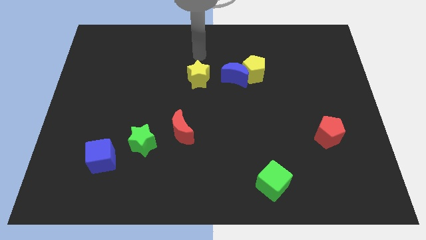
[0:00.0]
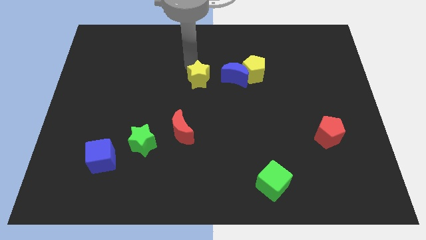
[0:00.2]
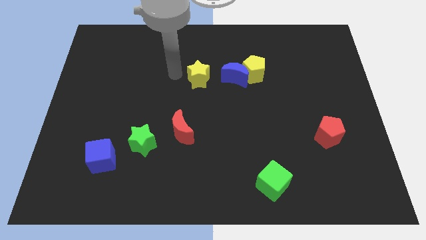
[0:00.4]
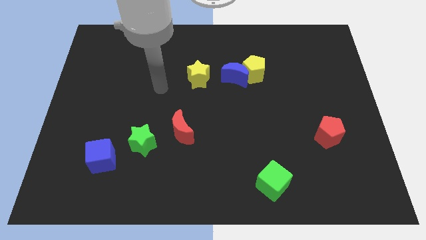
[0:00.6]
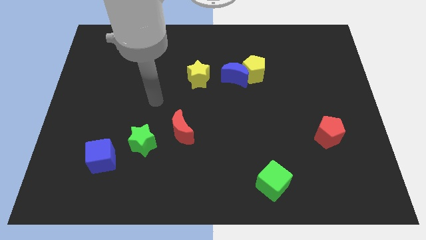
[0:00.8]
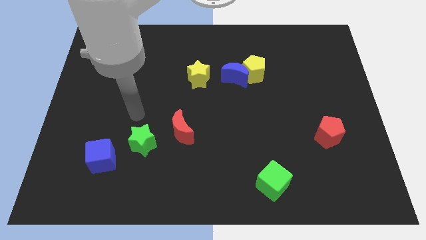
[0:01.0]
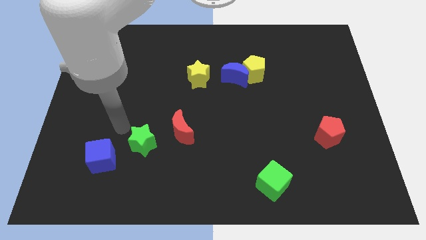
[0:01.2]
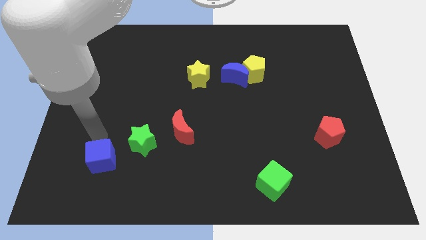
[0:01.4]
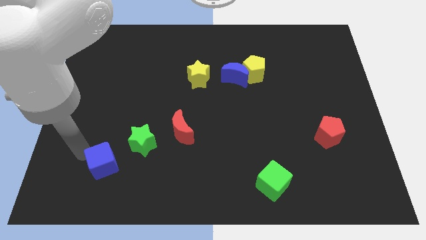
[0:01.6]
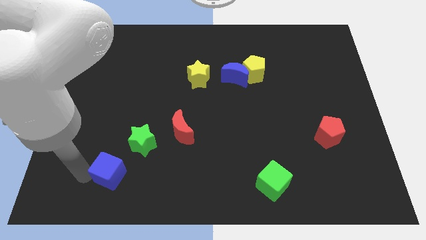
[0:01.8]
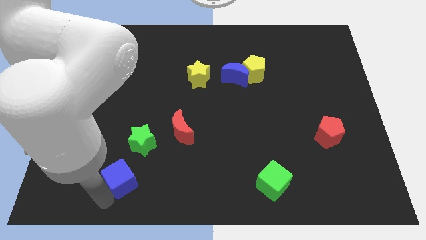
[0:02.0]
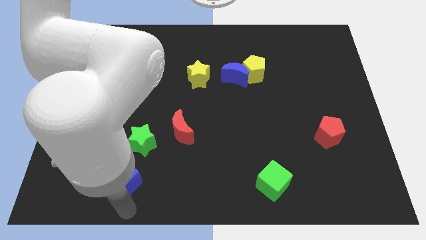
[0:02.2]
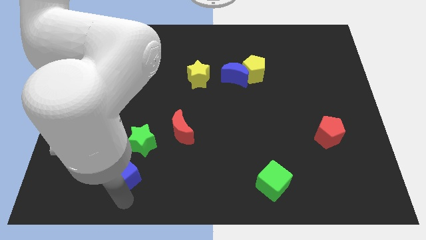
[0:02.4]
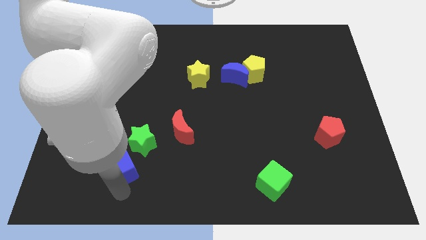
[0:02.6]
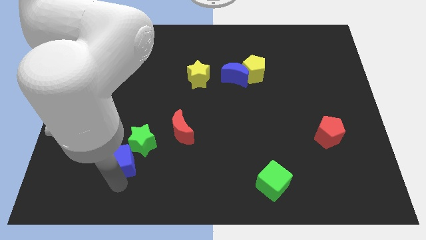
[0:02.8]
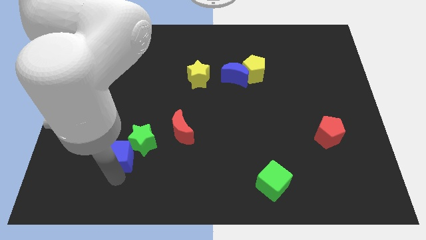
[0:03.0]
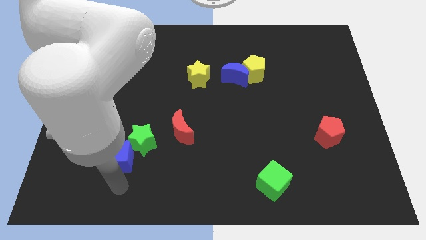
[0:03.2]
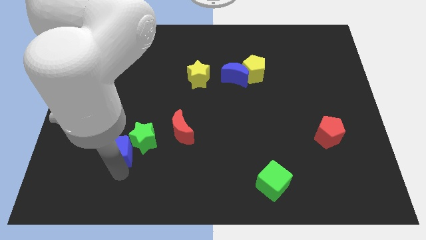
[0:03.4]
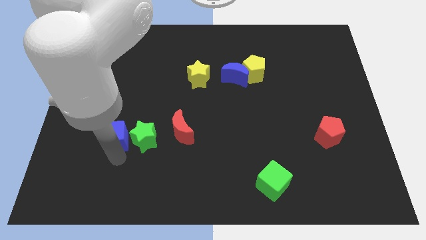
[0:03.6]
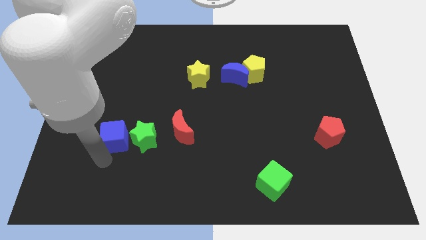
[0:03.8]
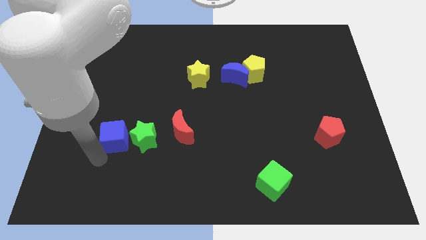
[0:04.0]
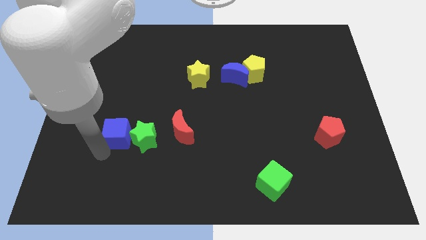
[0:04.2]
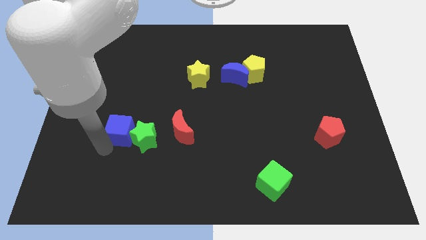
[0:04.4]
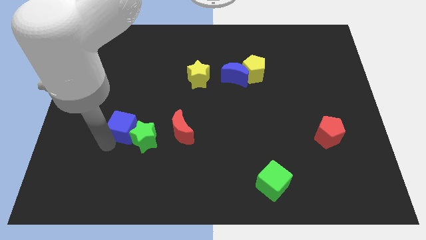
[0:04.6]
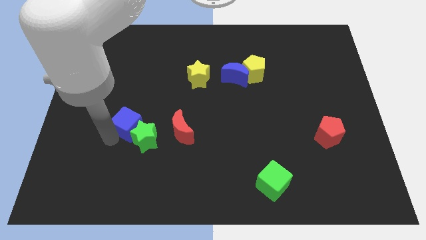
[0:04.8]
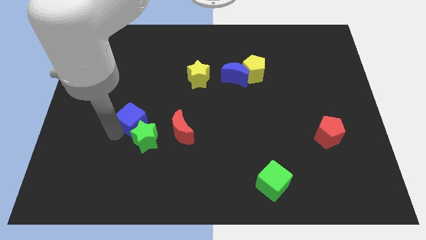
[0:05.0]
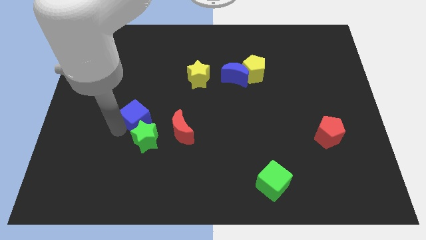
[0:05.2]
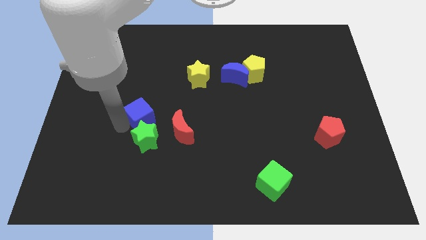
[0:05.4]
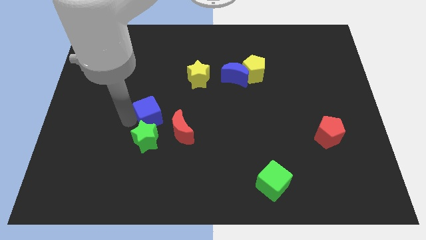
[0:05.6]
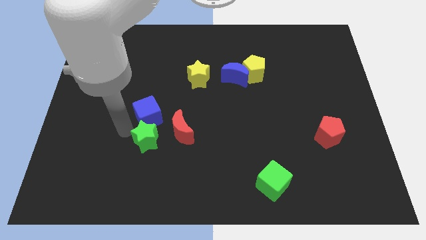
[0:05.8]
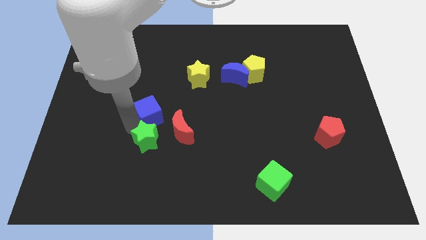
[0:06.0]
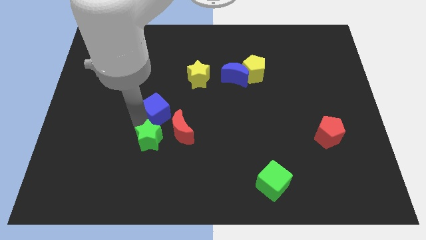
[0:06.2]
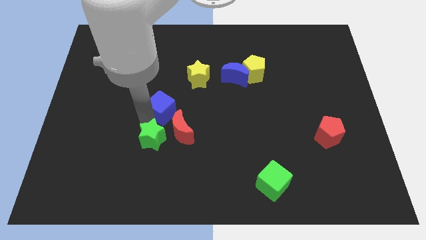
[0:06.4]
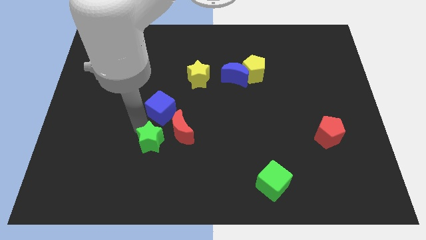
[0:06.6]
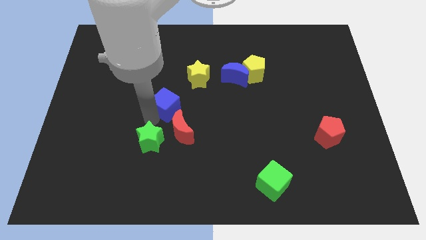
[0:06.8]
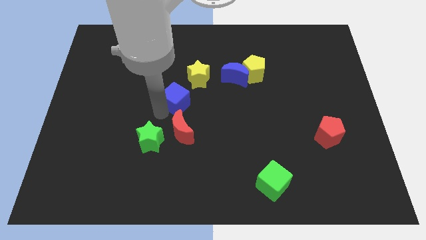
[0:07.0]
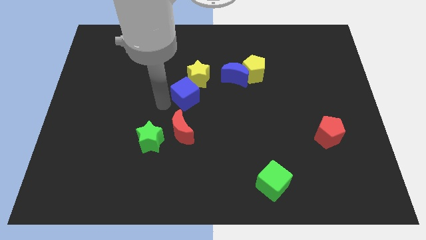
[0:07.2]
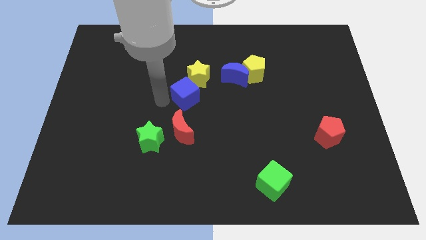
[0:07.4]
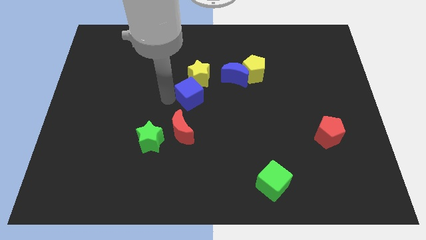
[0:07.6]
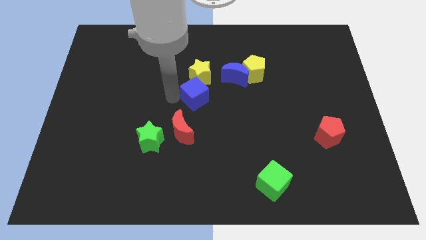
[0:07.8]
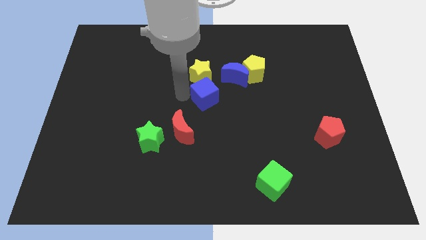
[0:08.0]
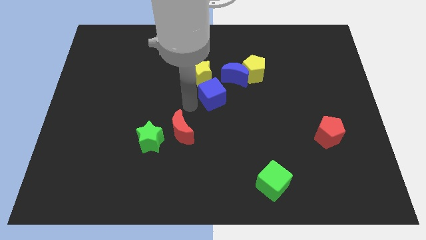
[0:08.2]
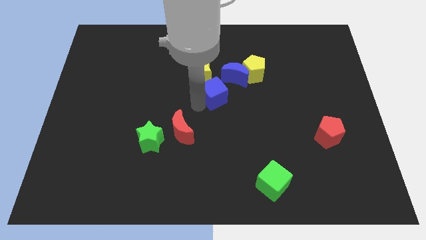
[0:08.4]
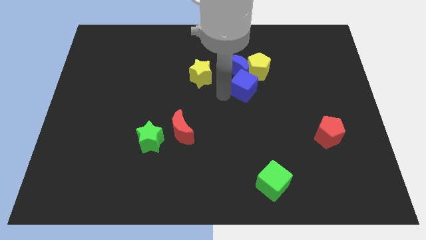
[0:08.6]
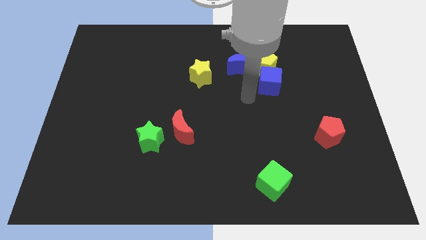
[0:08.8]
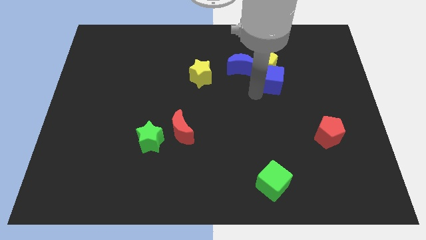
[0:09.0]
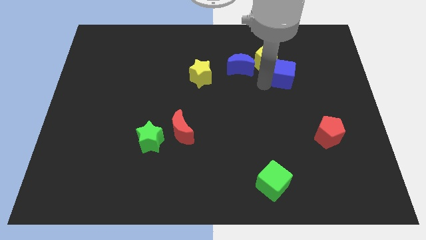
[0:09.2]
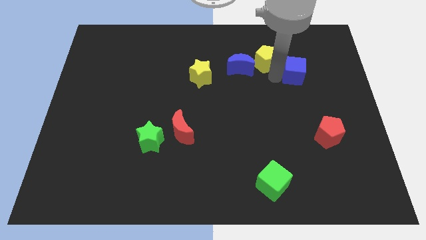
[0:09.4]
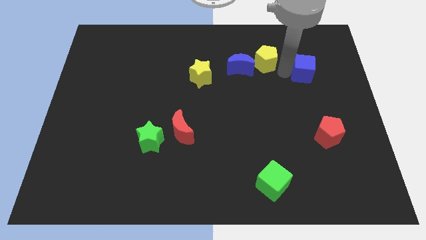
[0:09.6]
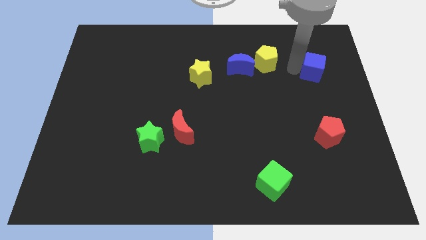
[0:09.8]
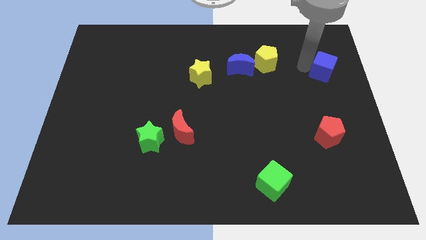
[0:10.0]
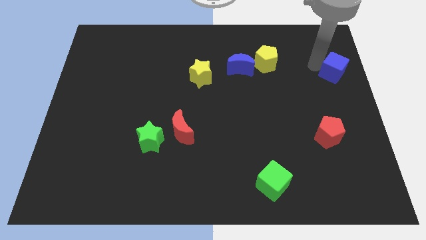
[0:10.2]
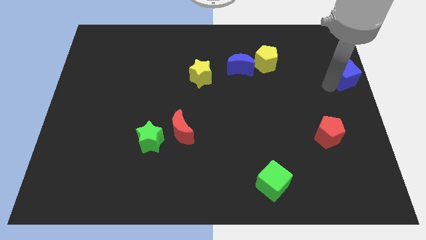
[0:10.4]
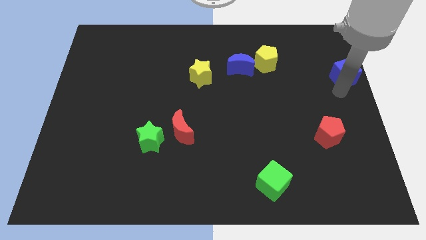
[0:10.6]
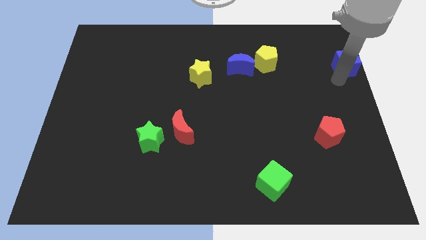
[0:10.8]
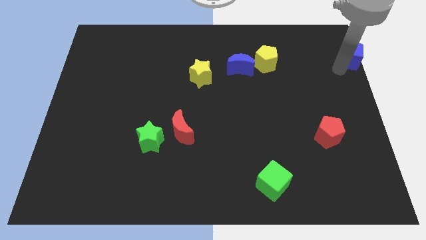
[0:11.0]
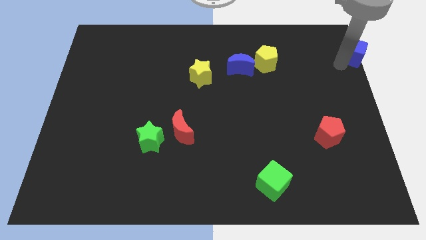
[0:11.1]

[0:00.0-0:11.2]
put the blue cube to the top right of the board

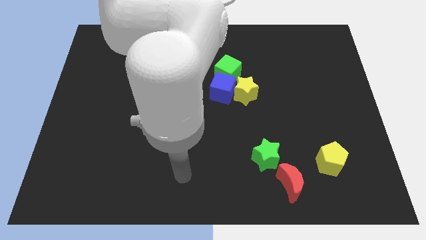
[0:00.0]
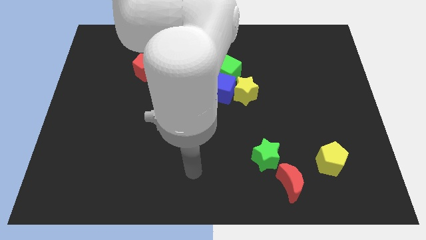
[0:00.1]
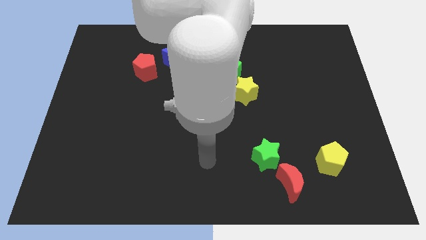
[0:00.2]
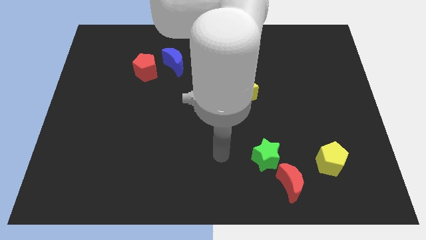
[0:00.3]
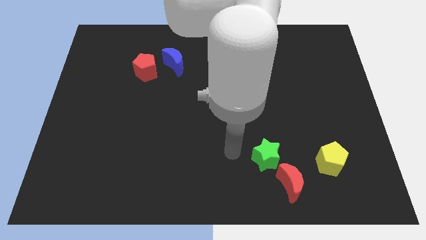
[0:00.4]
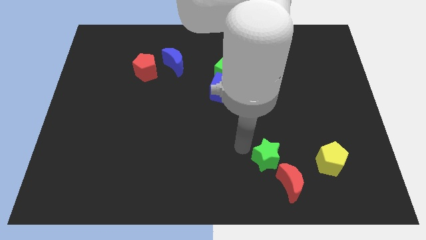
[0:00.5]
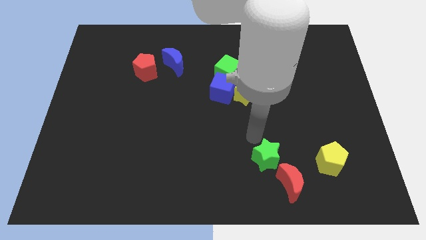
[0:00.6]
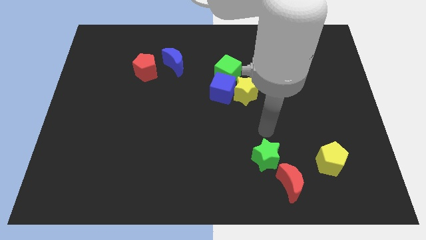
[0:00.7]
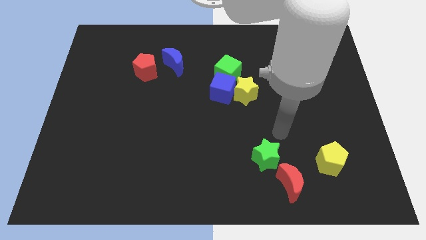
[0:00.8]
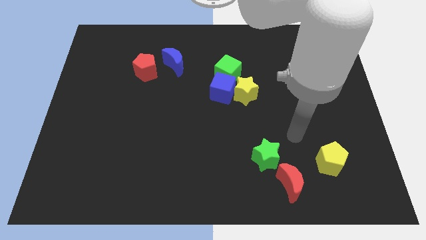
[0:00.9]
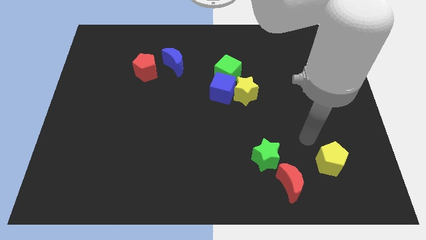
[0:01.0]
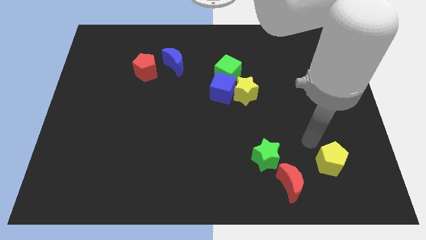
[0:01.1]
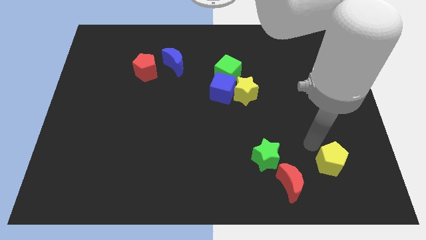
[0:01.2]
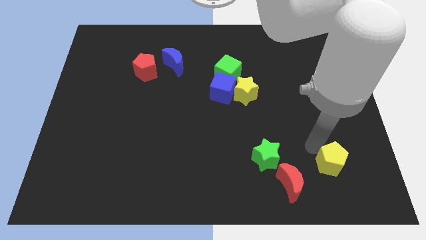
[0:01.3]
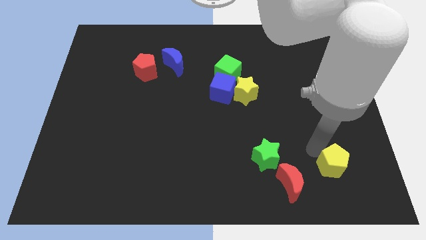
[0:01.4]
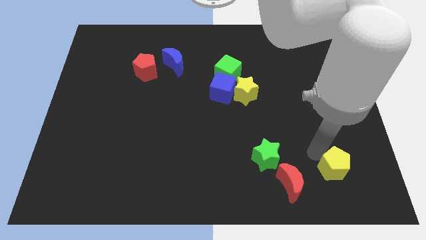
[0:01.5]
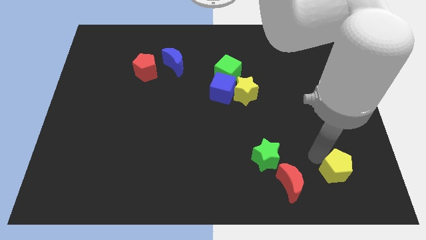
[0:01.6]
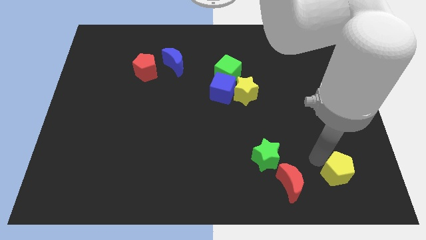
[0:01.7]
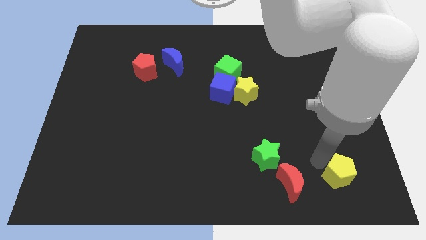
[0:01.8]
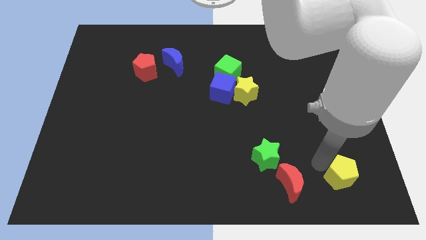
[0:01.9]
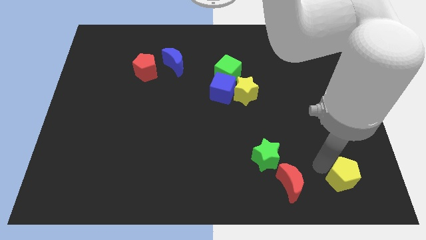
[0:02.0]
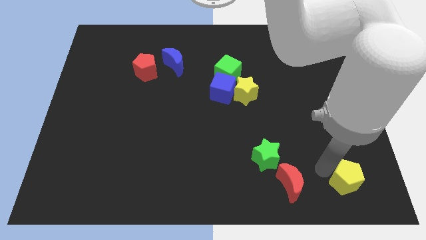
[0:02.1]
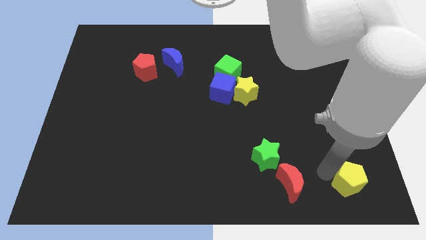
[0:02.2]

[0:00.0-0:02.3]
slide the yellow pentagon to the bottom right corner
